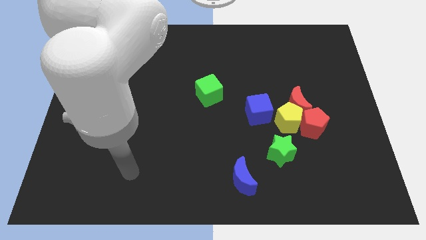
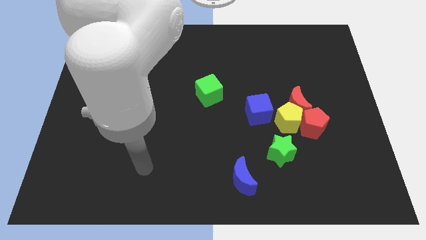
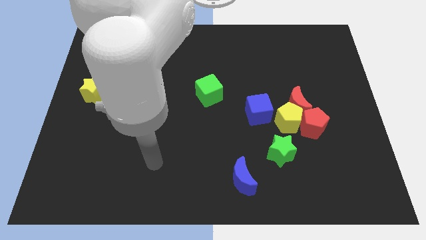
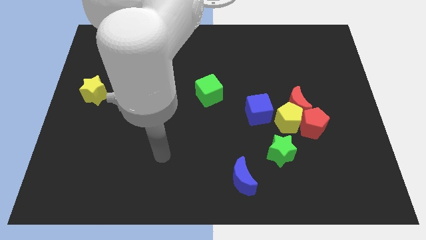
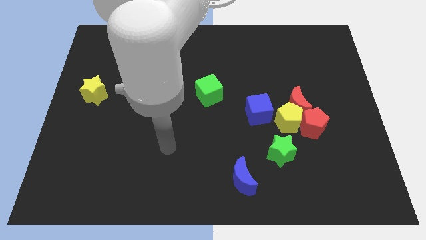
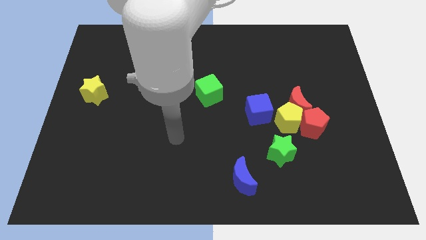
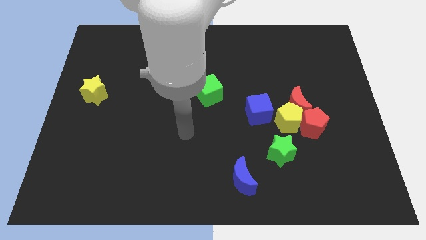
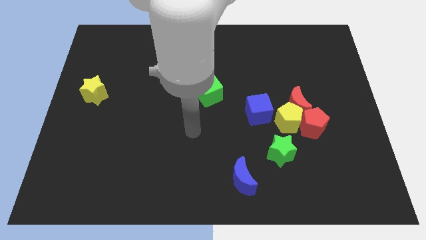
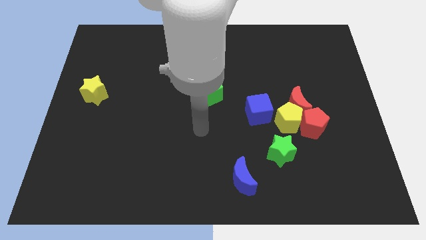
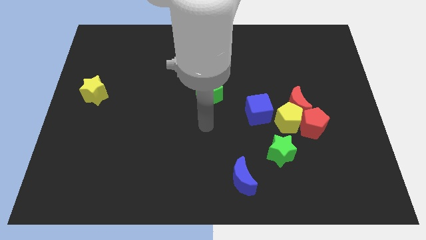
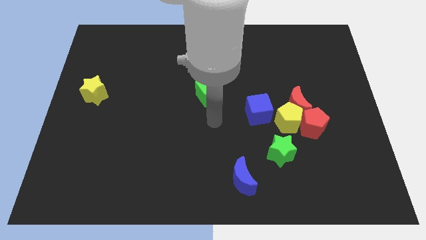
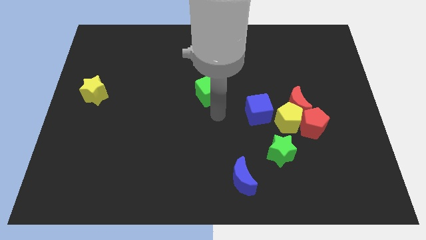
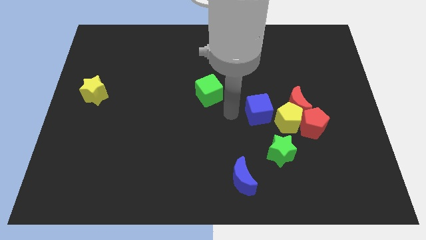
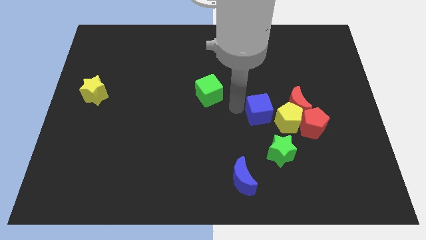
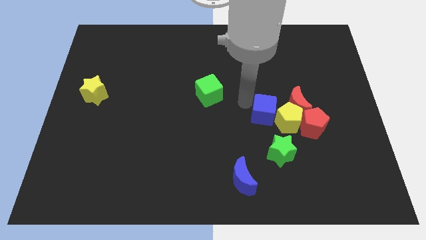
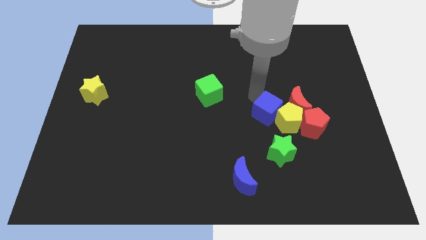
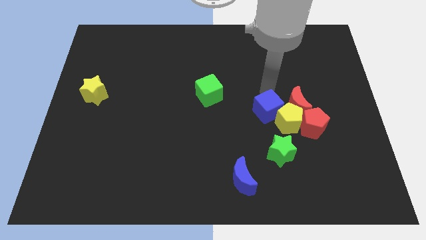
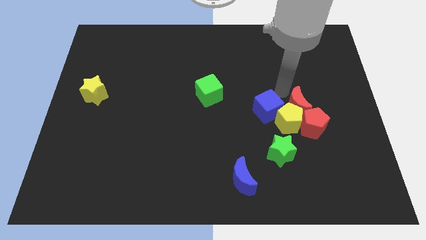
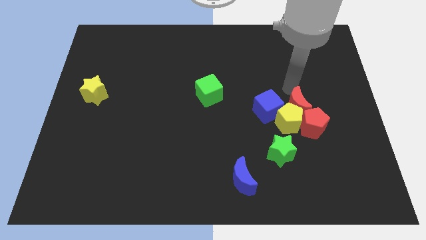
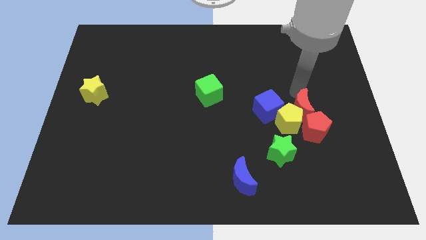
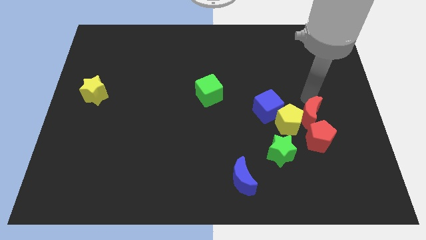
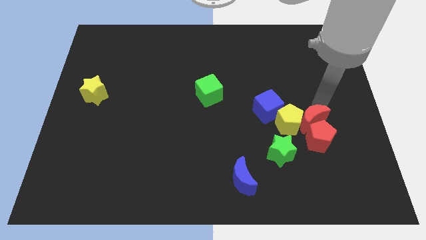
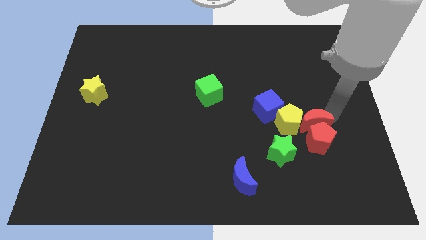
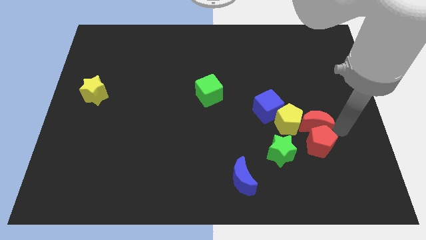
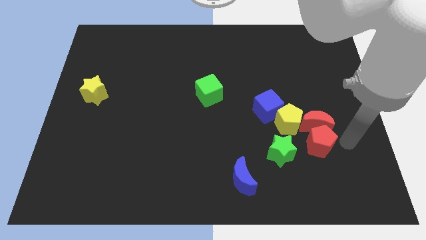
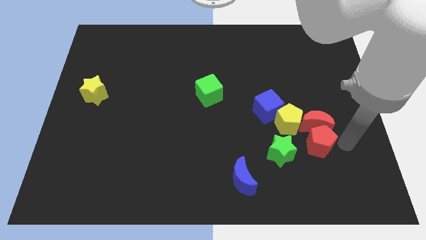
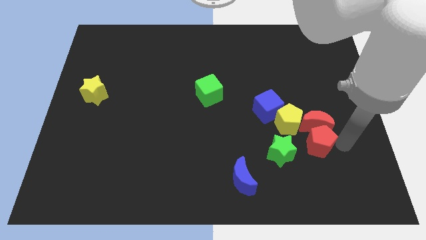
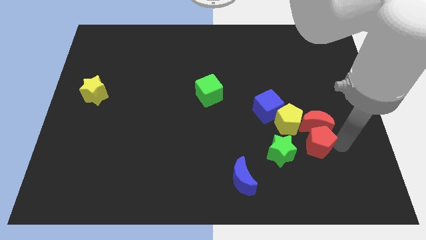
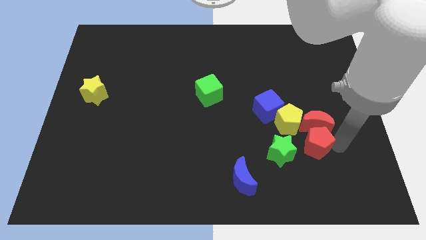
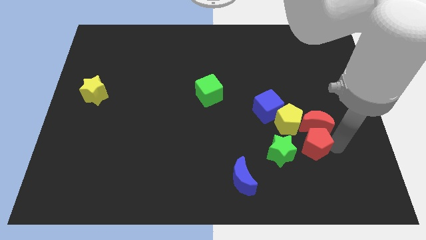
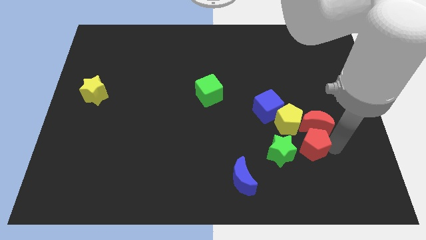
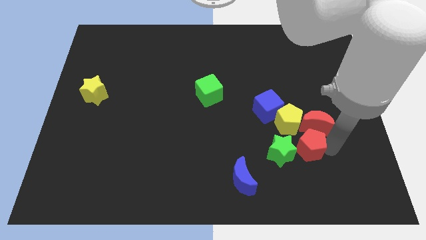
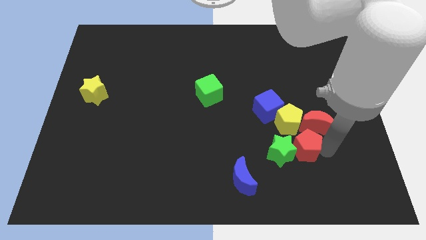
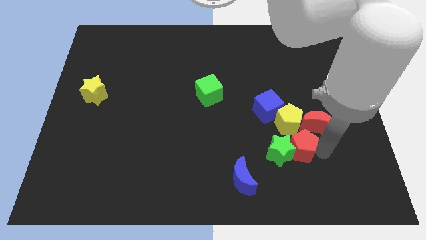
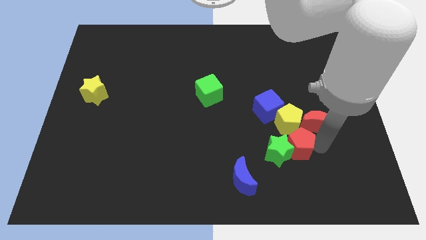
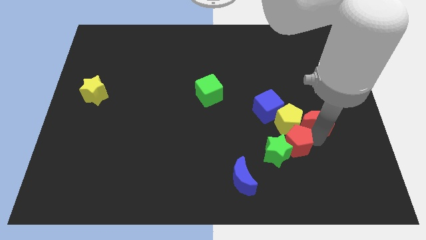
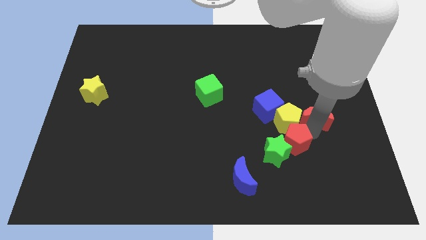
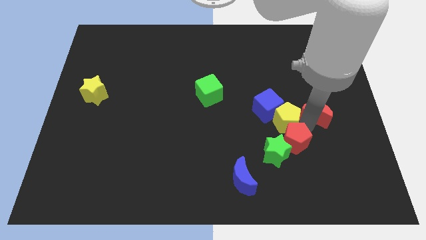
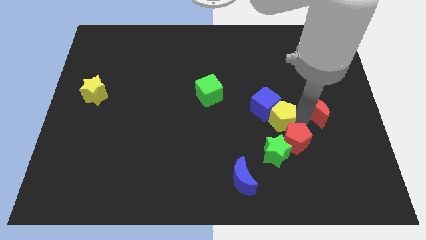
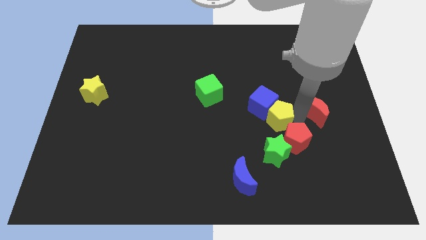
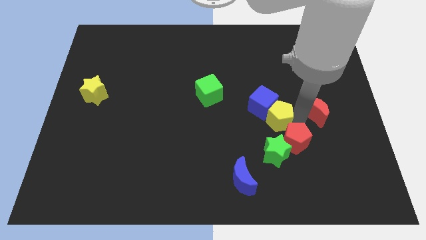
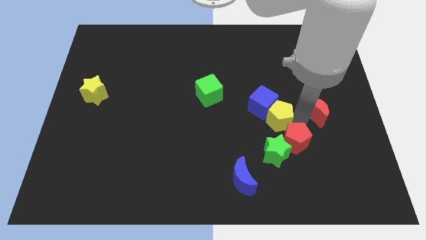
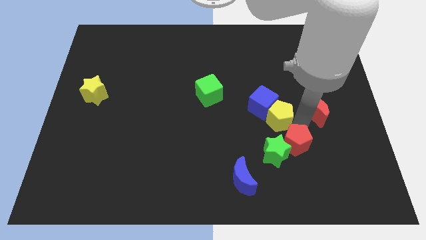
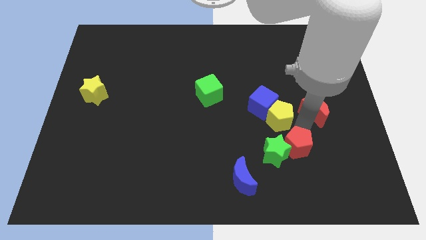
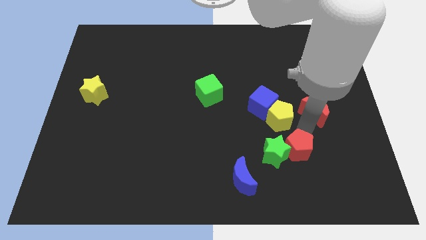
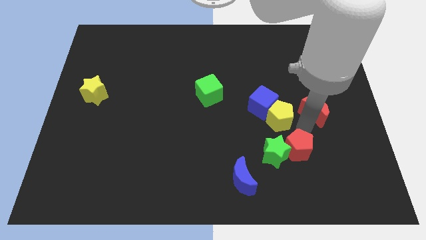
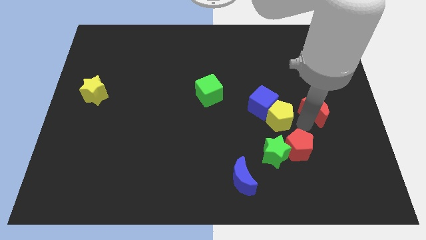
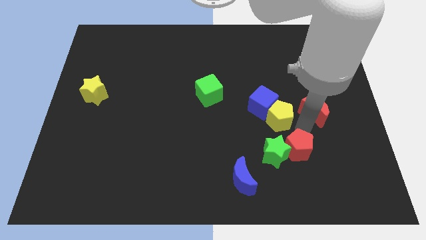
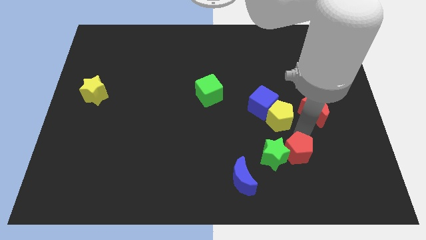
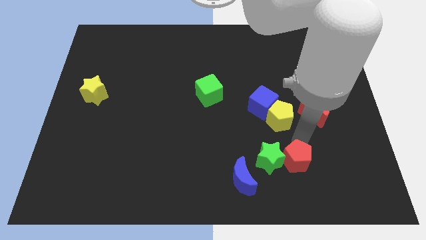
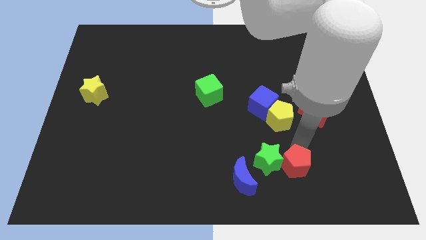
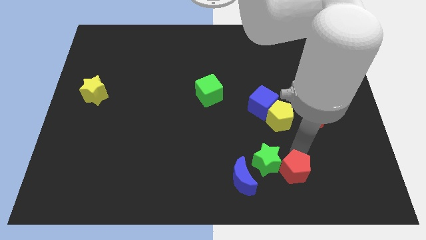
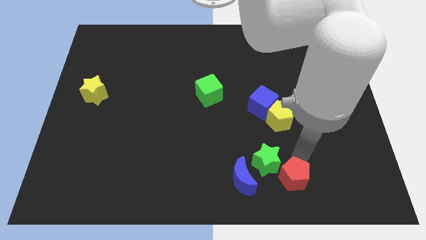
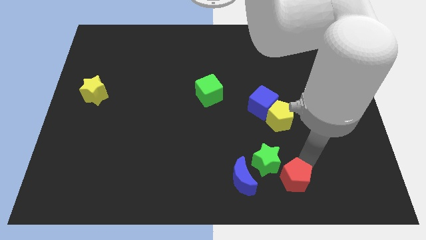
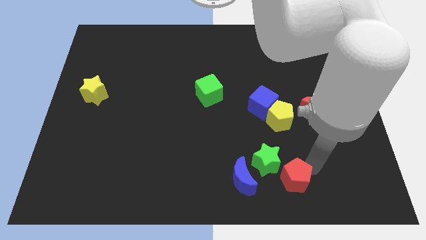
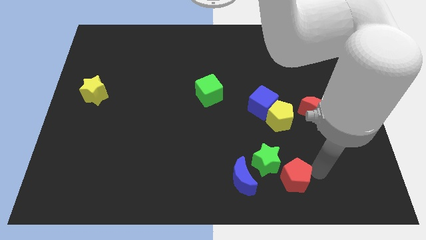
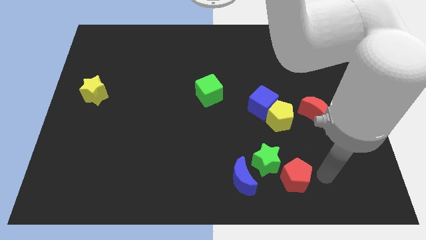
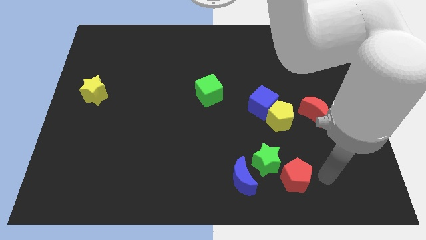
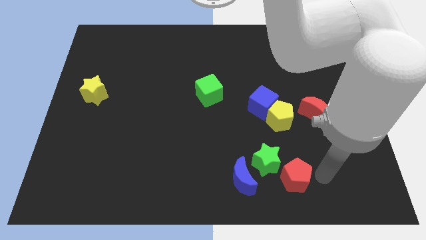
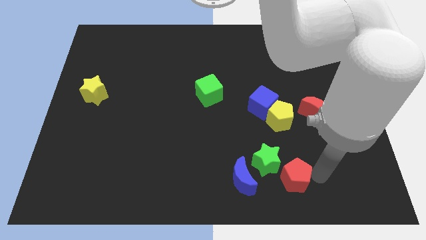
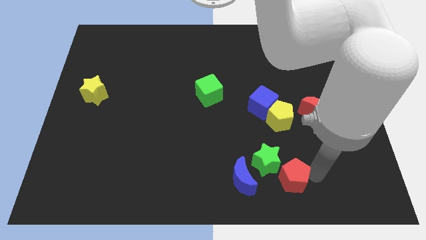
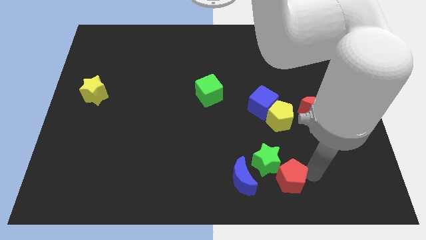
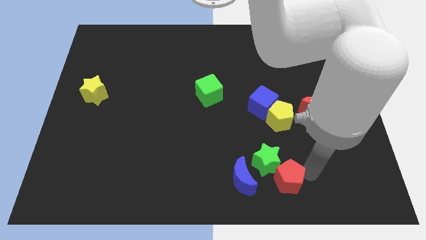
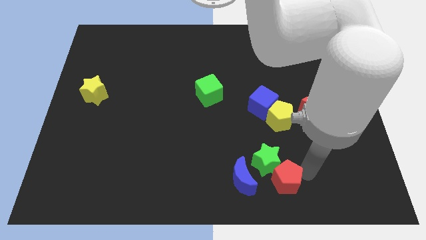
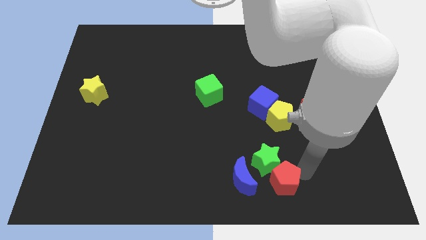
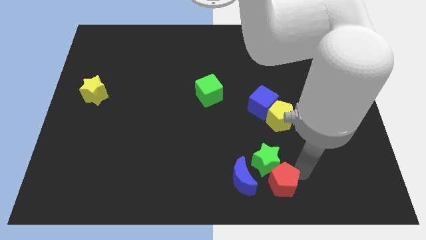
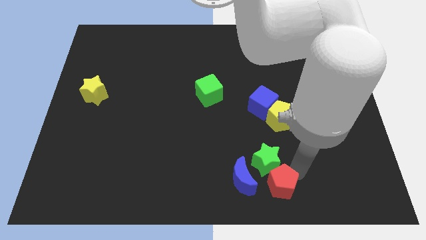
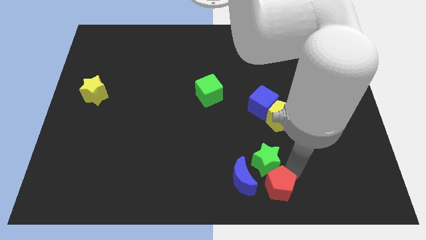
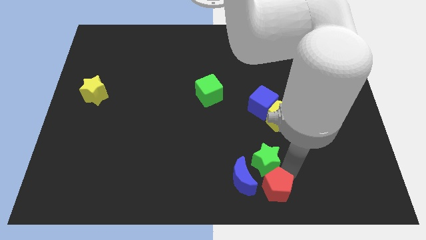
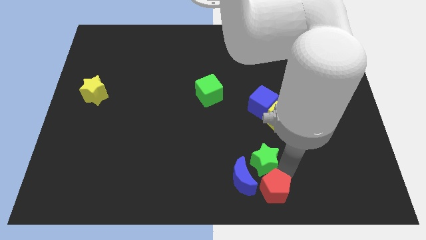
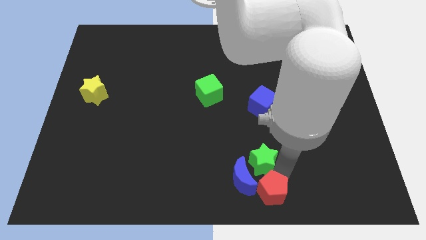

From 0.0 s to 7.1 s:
slide the red pentagon towards the blue moon
